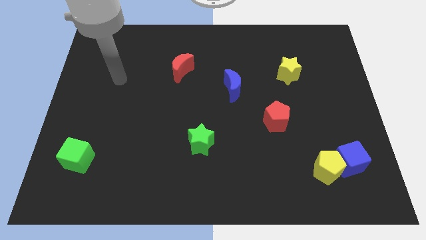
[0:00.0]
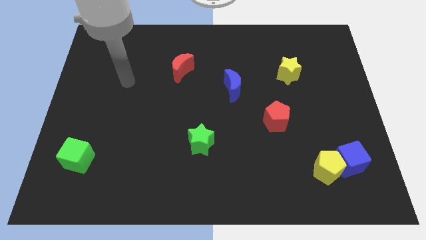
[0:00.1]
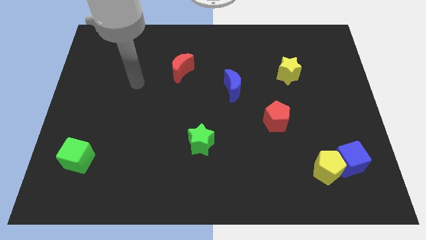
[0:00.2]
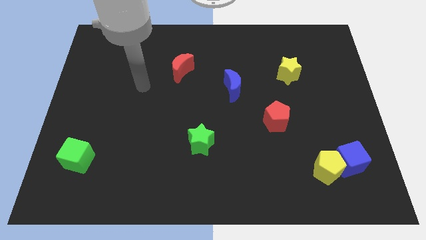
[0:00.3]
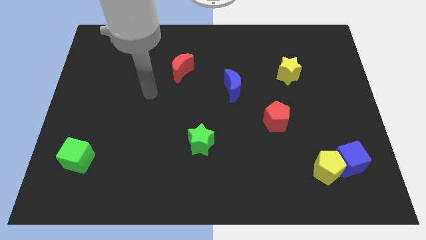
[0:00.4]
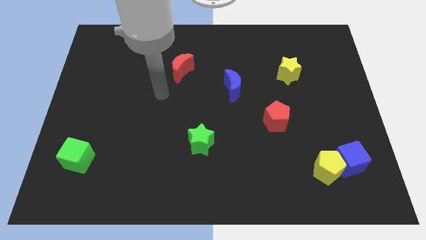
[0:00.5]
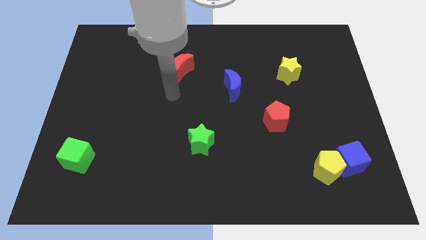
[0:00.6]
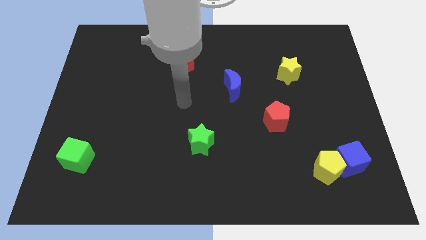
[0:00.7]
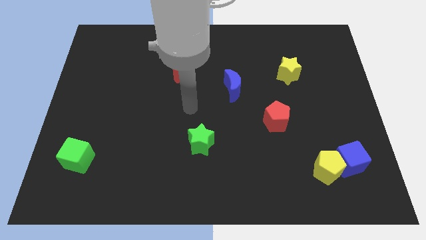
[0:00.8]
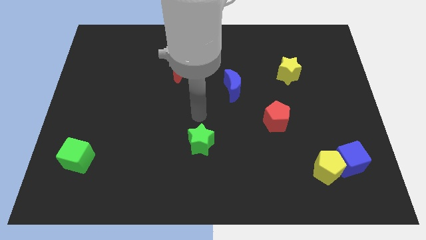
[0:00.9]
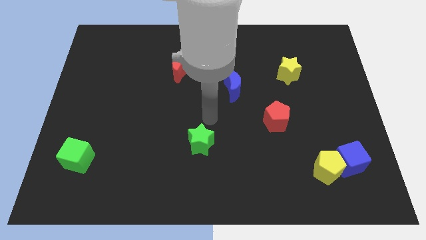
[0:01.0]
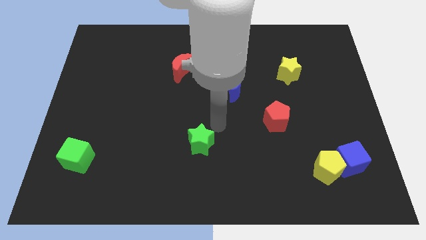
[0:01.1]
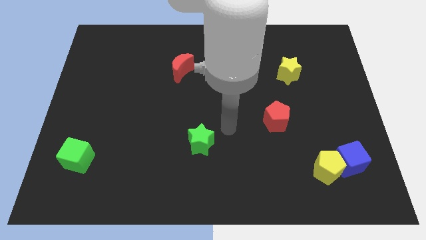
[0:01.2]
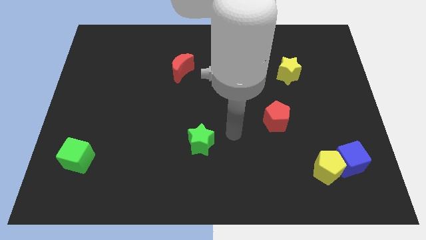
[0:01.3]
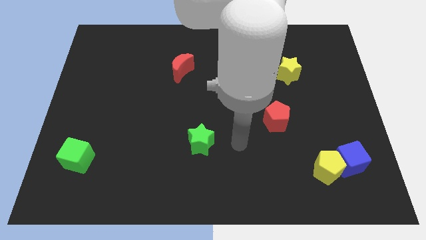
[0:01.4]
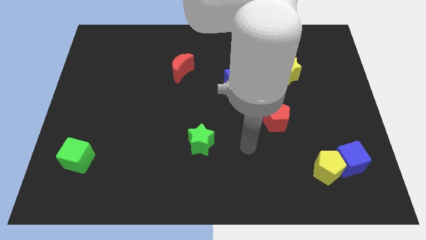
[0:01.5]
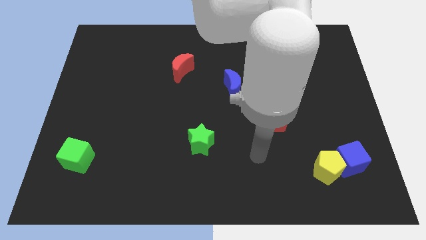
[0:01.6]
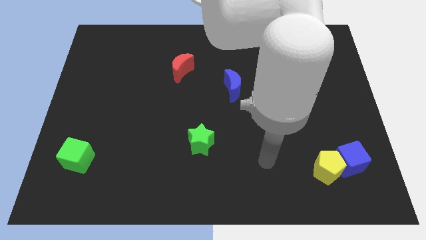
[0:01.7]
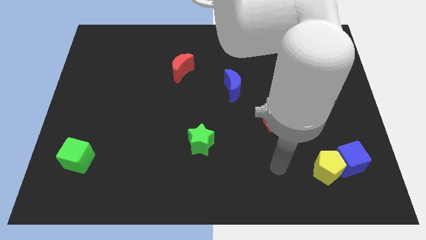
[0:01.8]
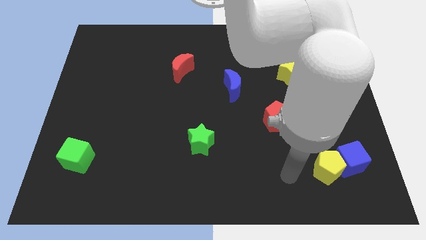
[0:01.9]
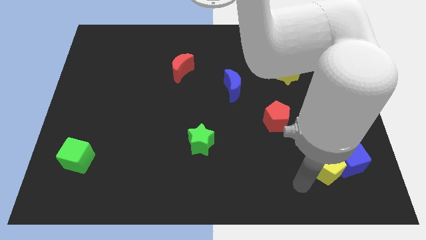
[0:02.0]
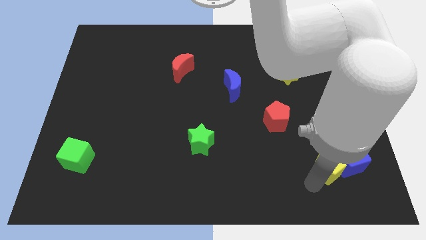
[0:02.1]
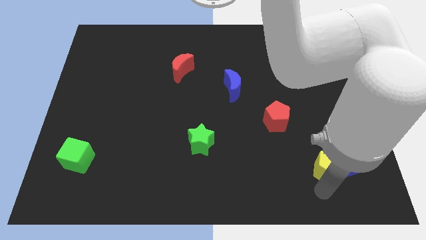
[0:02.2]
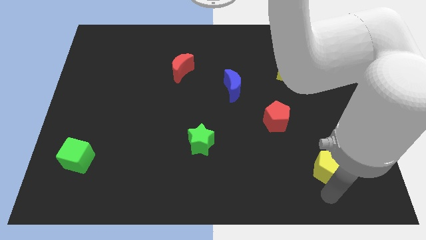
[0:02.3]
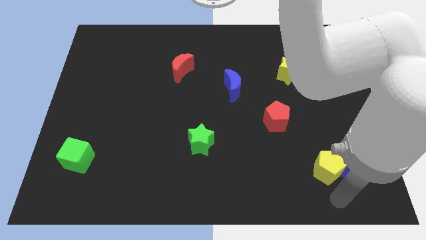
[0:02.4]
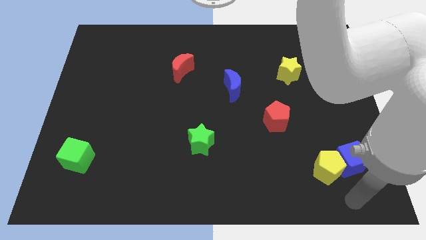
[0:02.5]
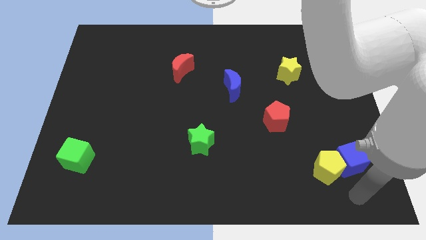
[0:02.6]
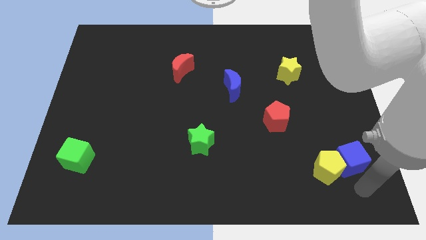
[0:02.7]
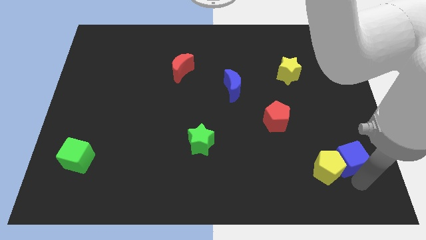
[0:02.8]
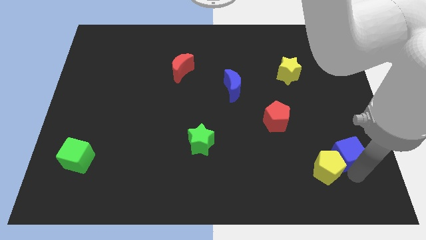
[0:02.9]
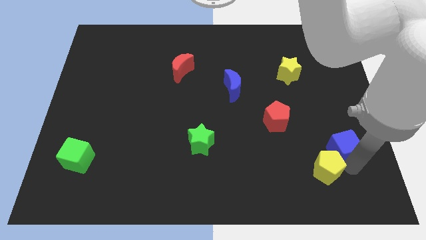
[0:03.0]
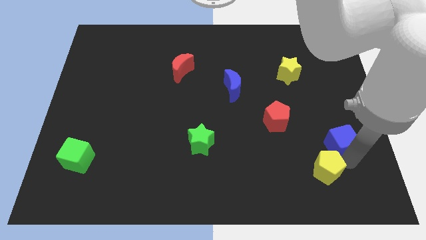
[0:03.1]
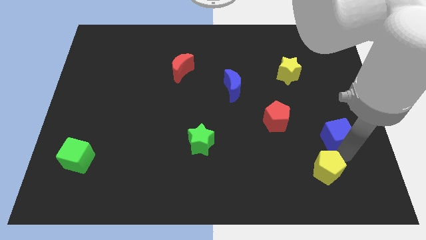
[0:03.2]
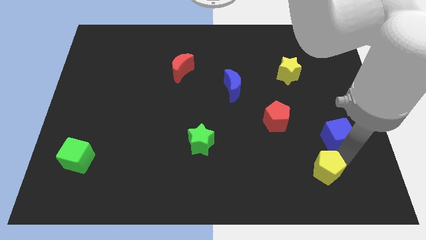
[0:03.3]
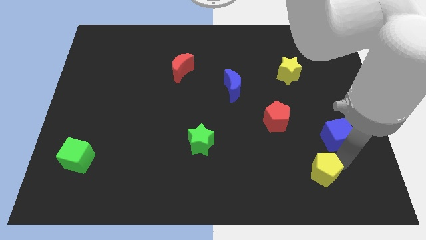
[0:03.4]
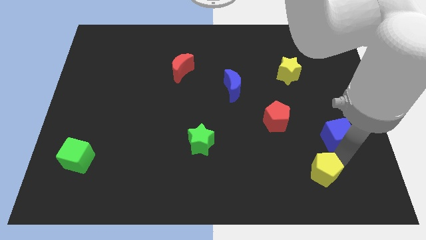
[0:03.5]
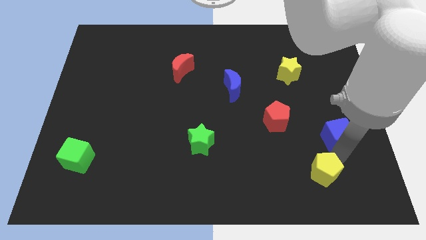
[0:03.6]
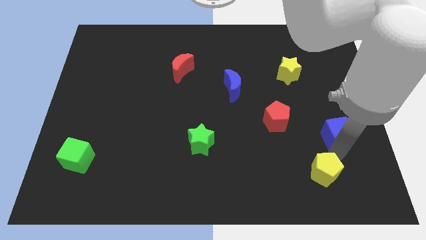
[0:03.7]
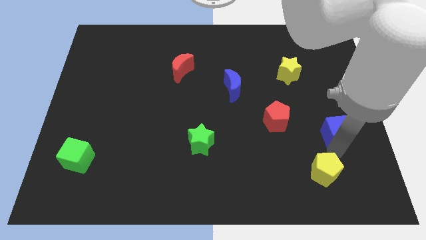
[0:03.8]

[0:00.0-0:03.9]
push the blue cube up slightly

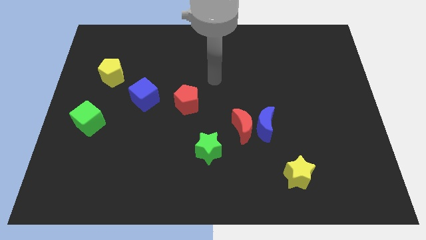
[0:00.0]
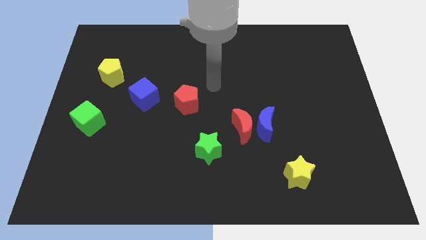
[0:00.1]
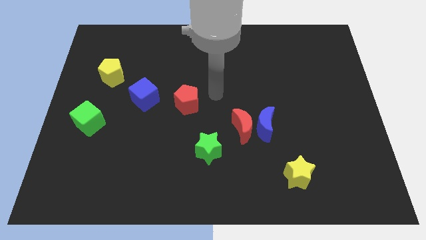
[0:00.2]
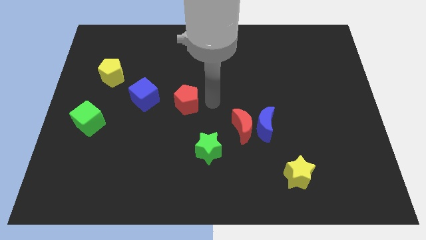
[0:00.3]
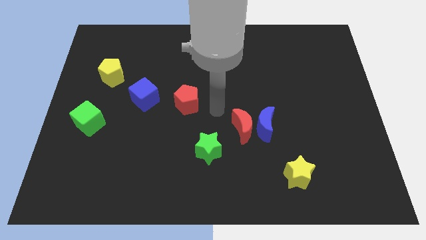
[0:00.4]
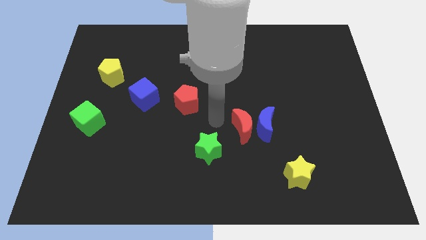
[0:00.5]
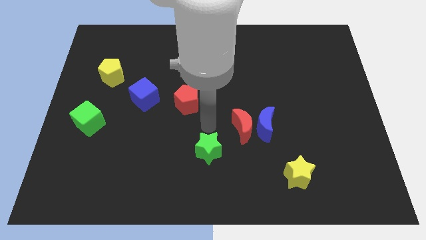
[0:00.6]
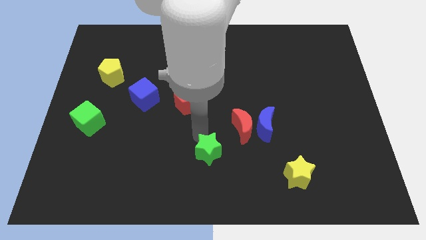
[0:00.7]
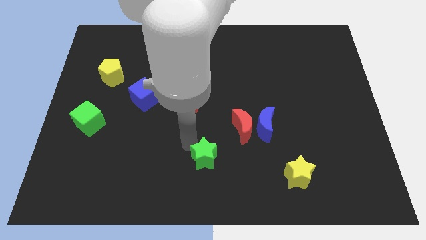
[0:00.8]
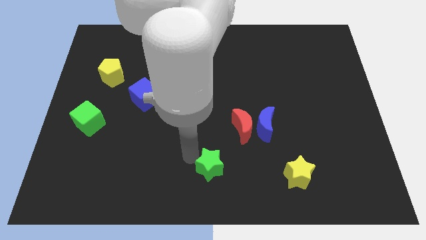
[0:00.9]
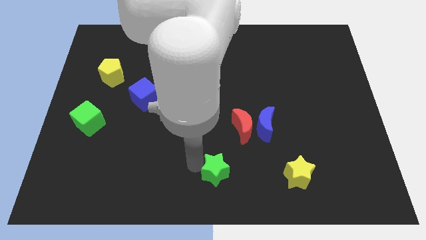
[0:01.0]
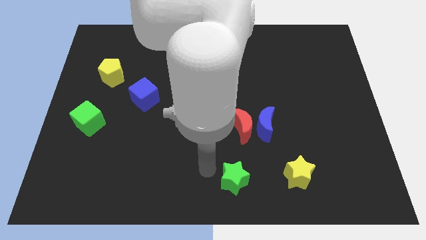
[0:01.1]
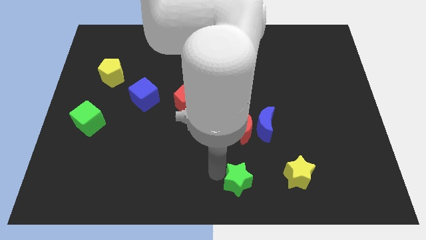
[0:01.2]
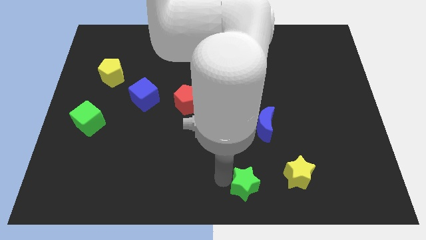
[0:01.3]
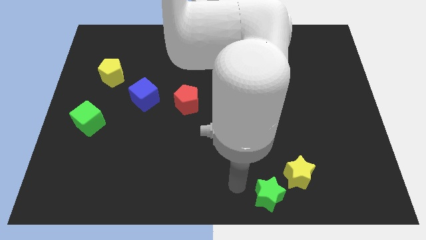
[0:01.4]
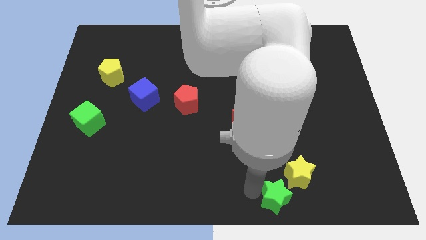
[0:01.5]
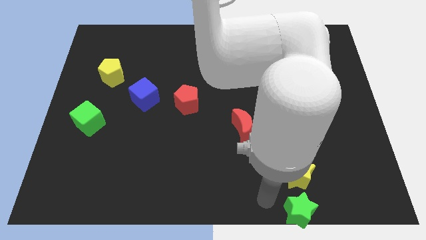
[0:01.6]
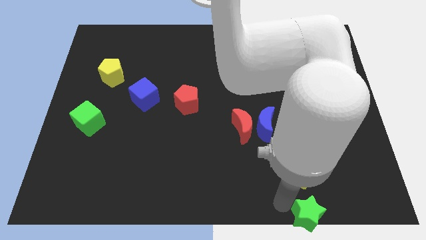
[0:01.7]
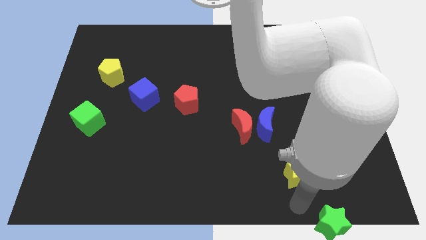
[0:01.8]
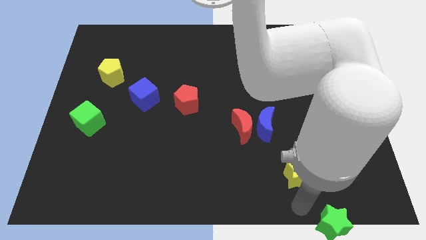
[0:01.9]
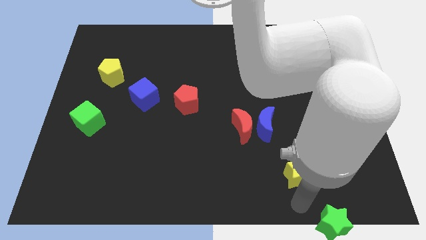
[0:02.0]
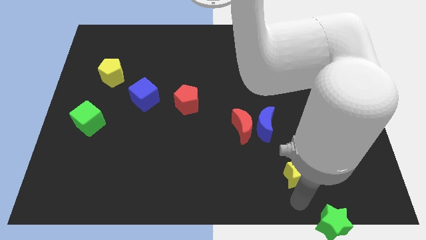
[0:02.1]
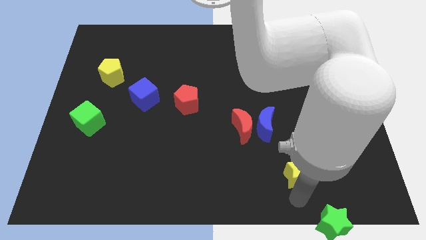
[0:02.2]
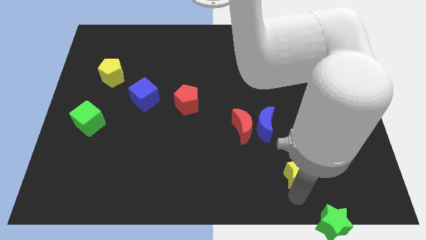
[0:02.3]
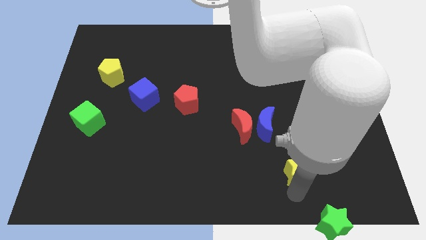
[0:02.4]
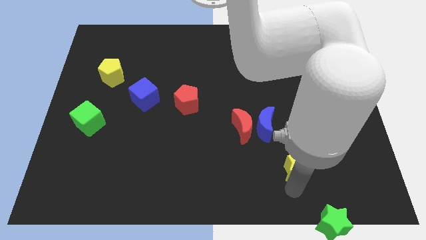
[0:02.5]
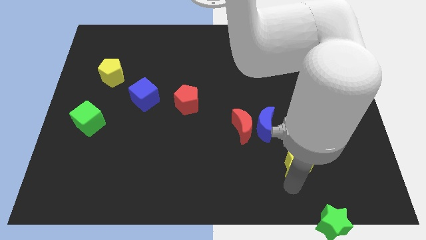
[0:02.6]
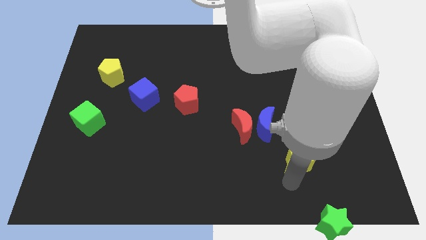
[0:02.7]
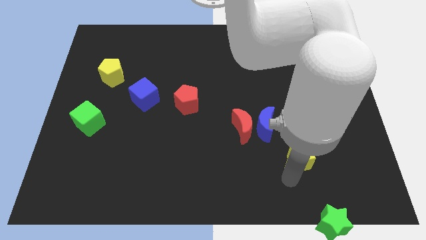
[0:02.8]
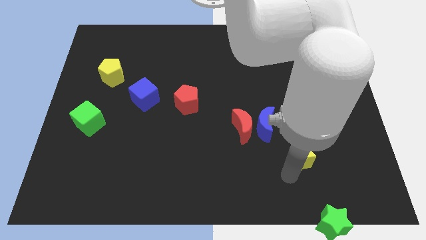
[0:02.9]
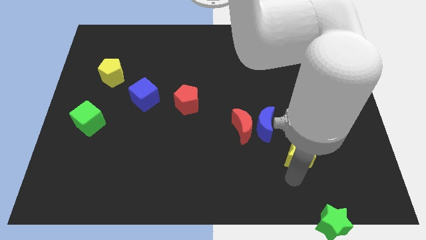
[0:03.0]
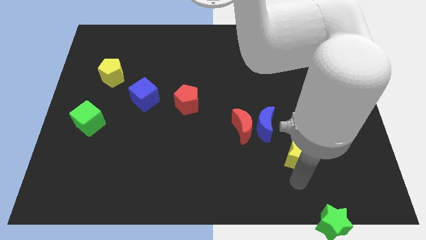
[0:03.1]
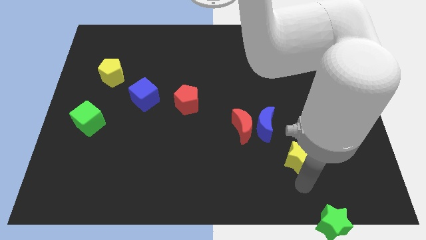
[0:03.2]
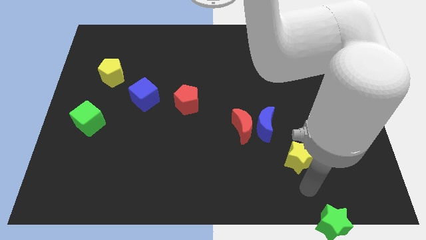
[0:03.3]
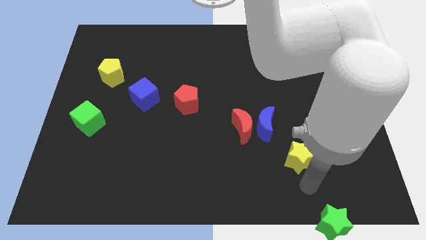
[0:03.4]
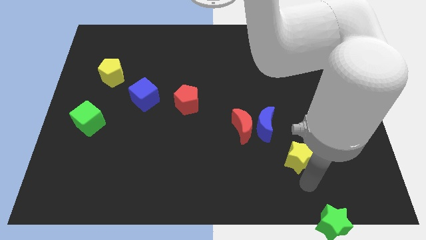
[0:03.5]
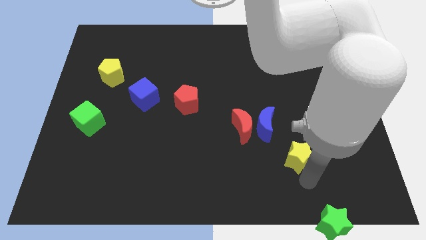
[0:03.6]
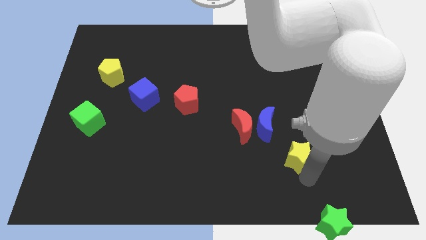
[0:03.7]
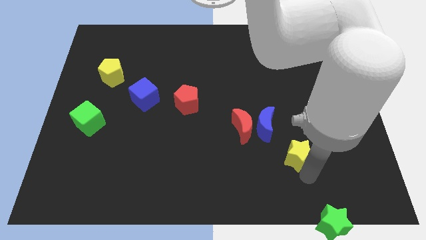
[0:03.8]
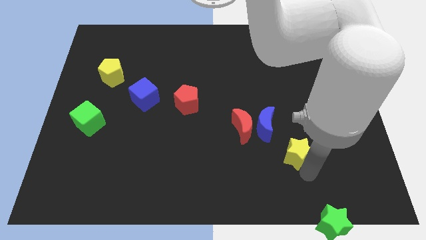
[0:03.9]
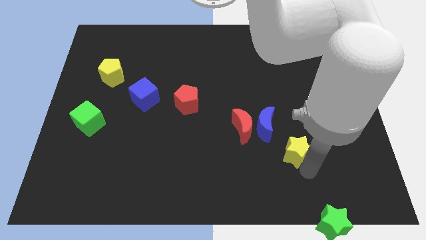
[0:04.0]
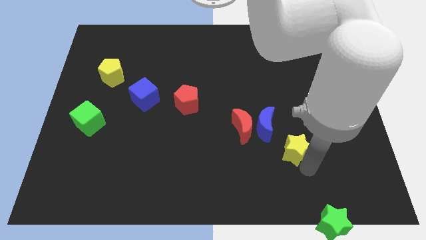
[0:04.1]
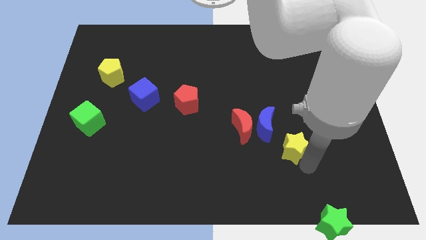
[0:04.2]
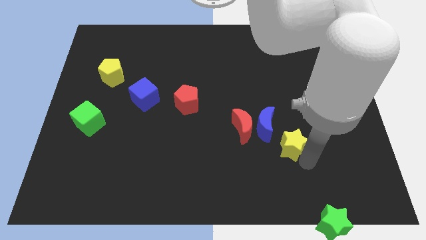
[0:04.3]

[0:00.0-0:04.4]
move the yellow star a little bit up
